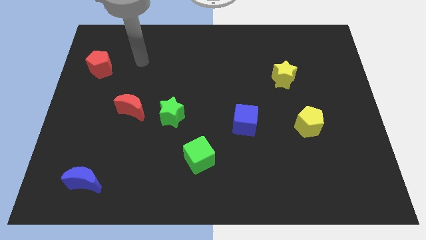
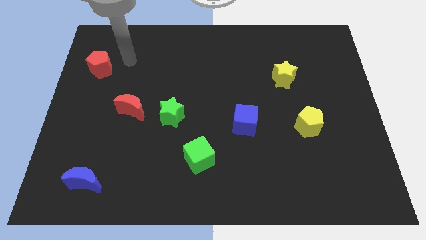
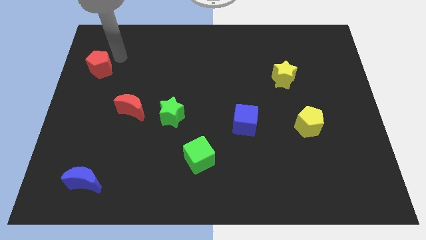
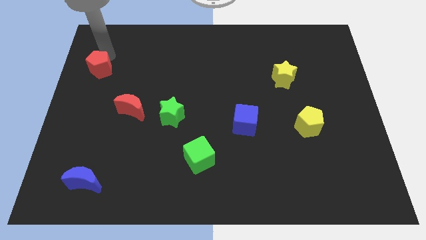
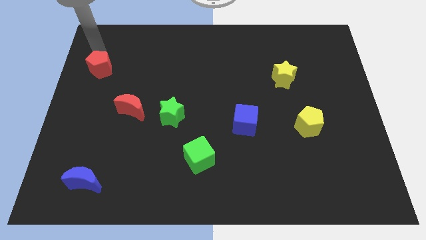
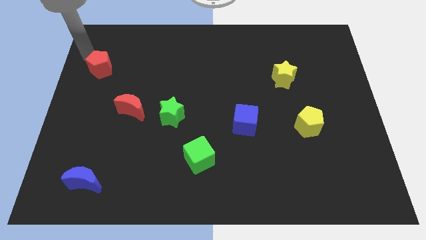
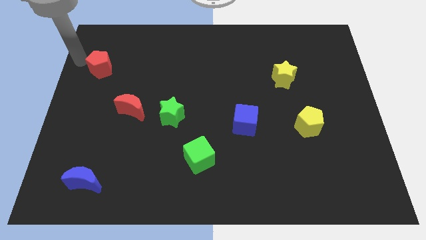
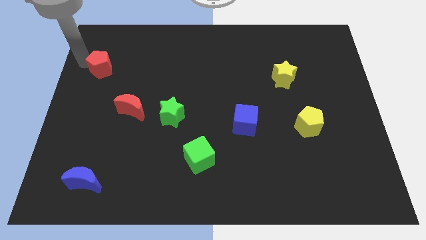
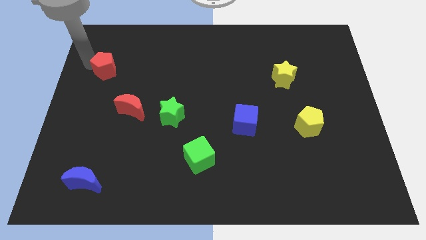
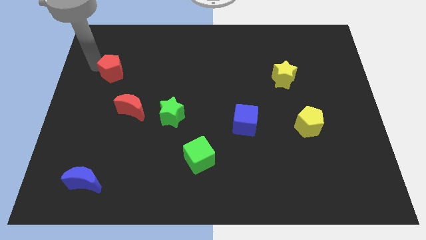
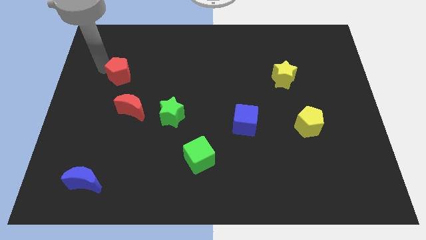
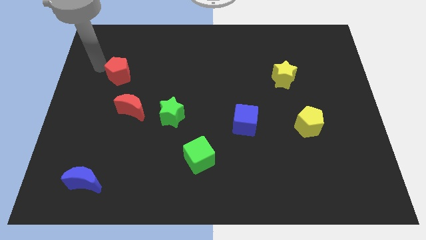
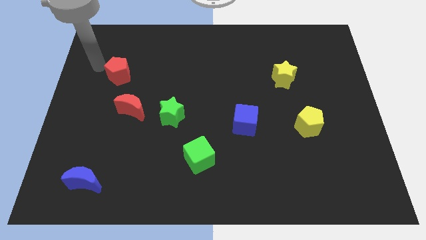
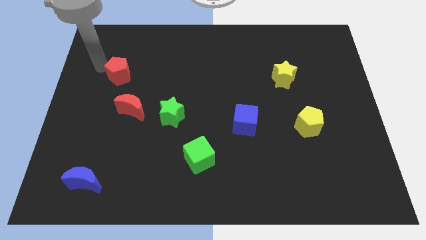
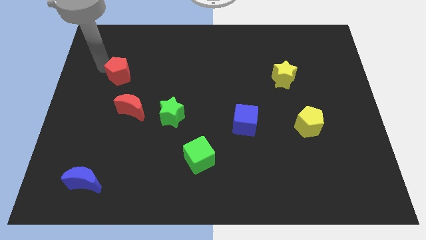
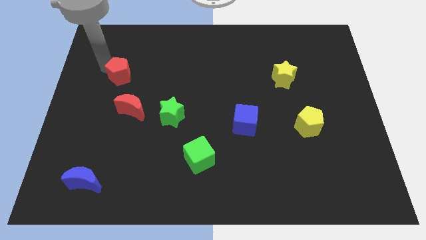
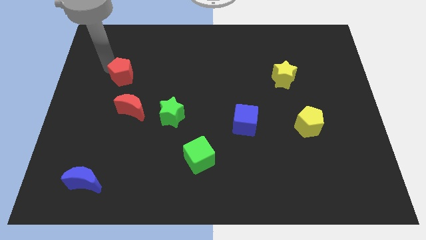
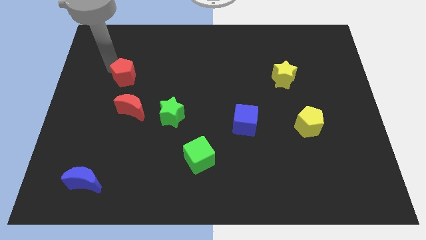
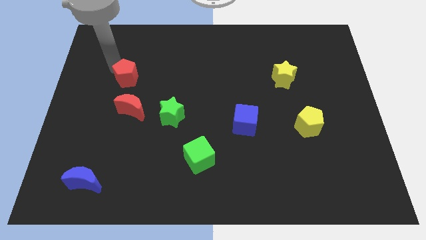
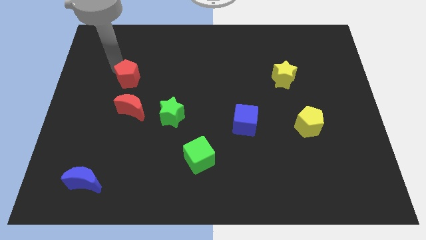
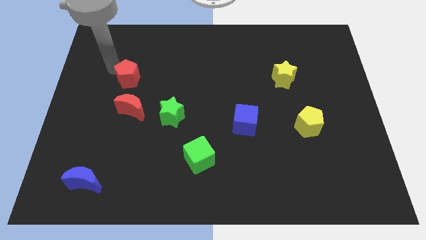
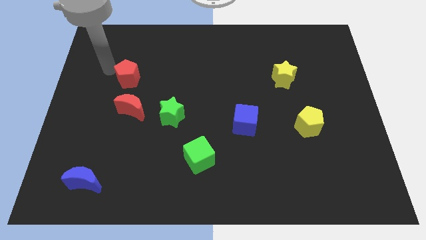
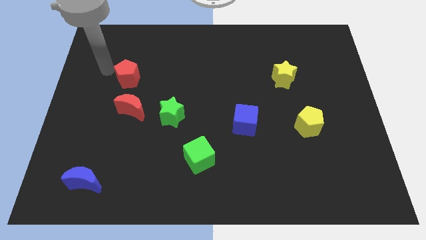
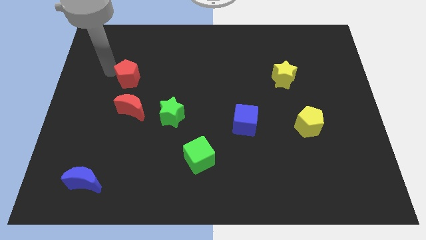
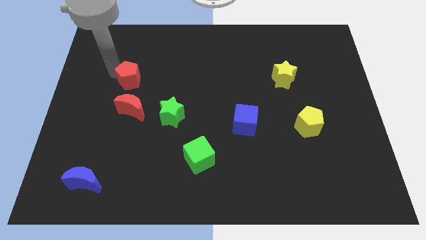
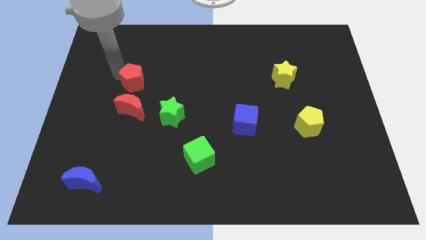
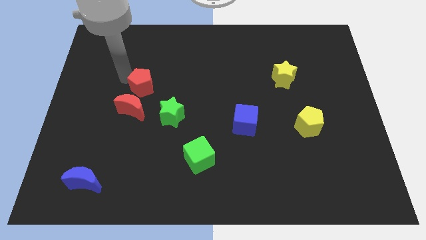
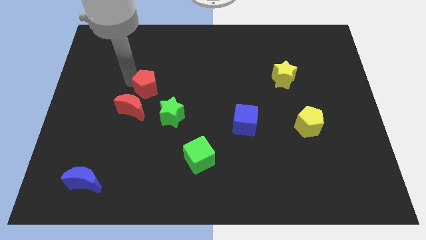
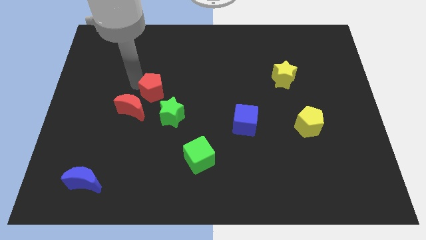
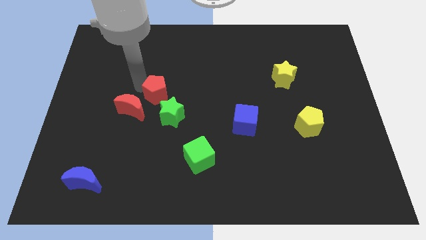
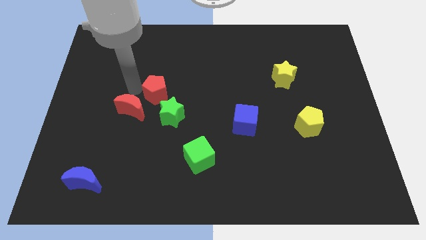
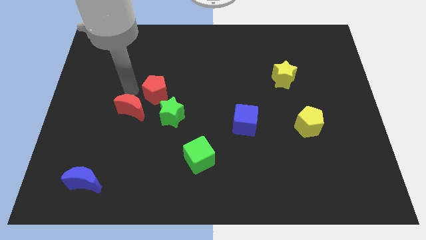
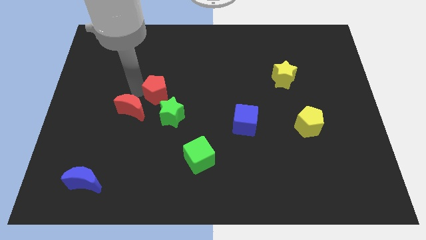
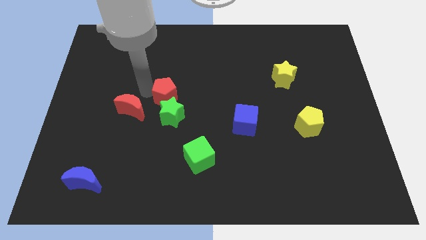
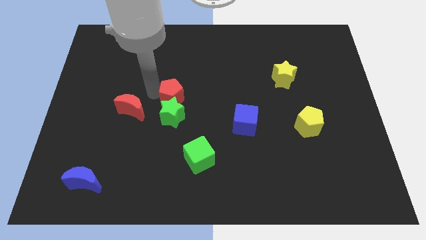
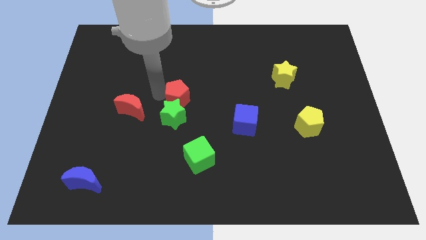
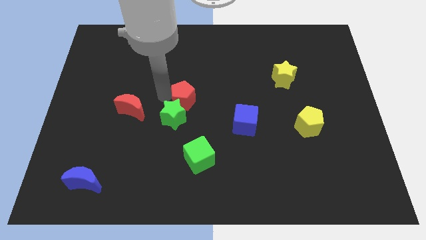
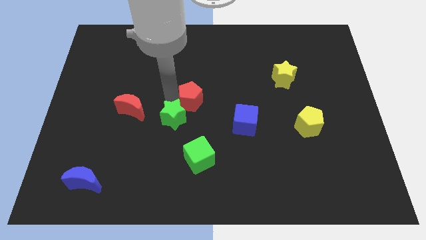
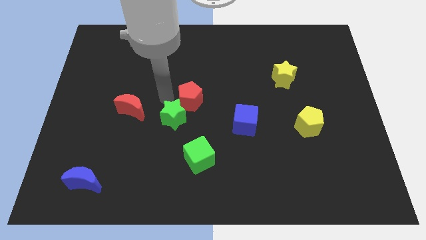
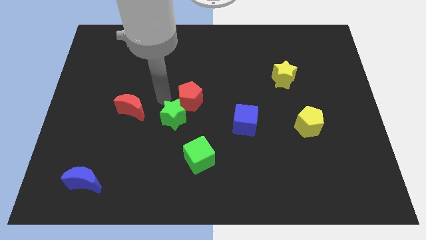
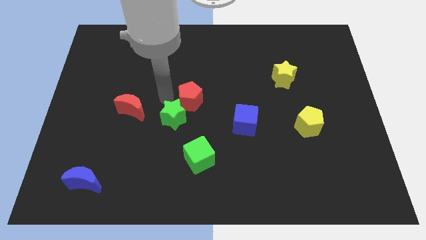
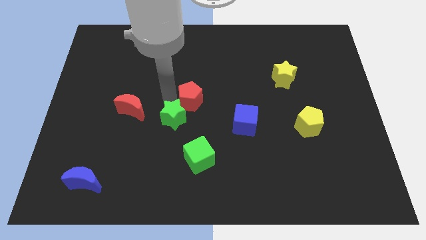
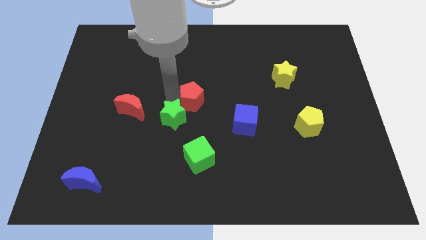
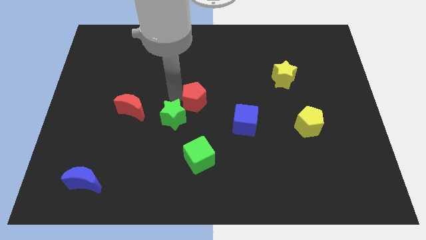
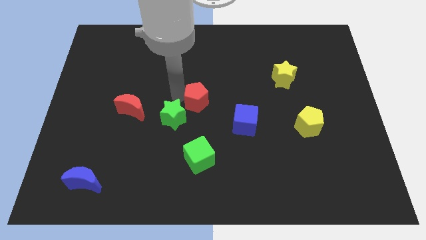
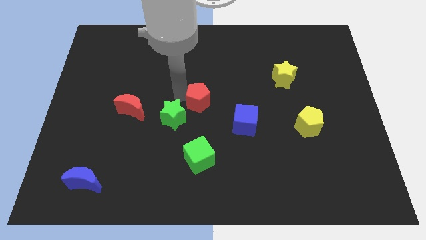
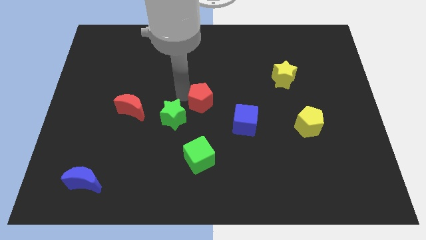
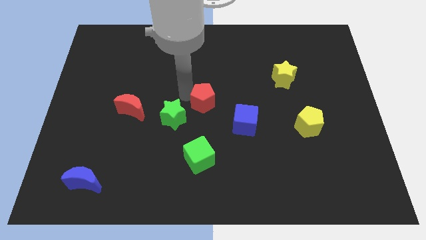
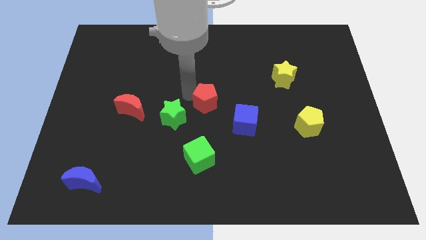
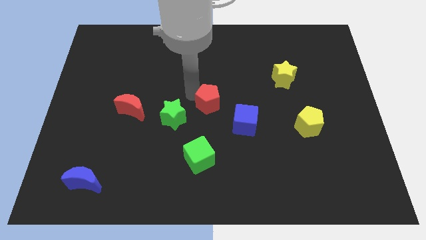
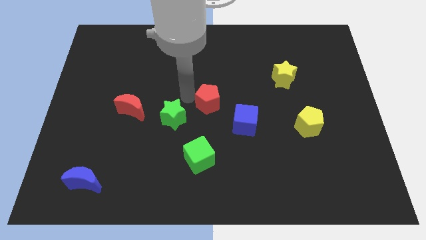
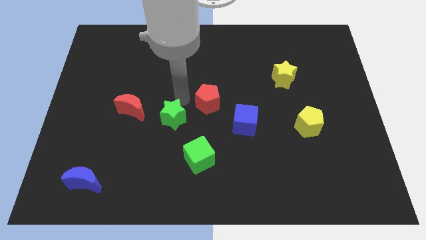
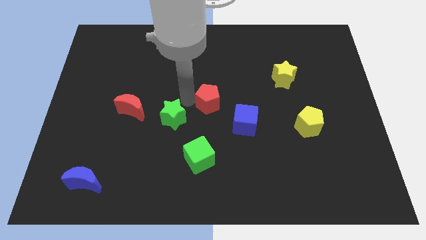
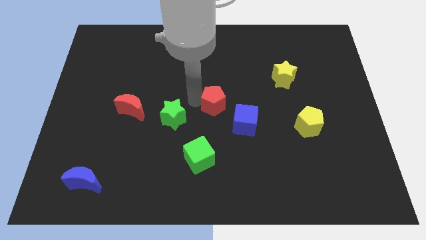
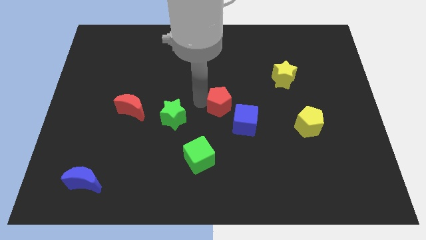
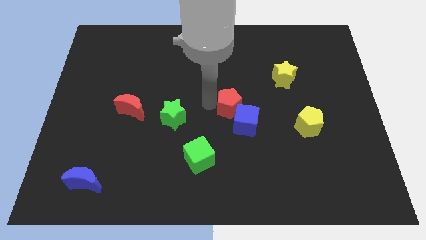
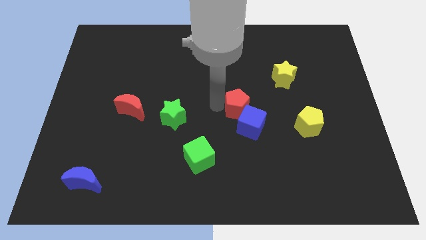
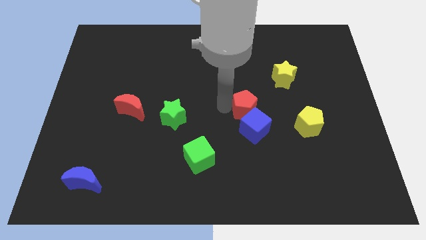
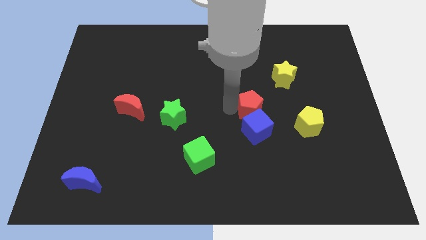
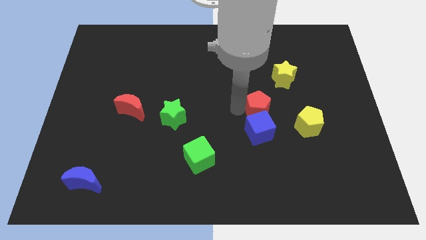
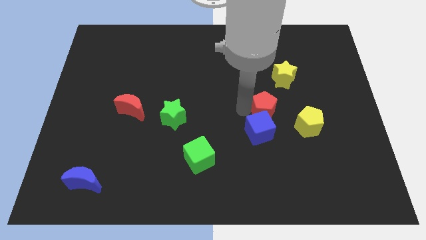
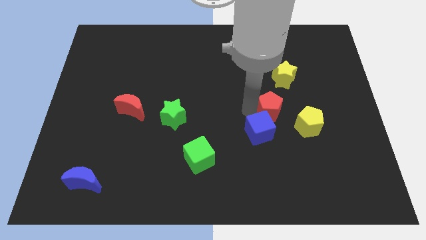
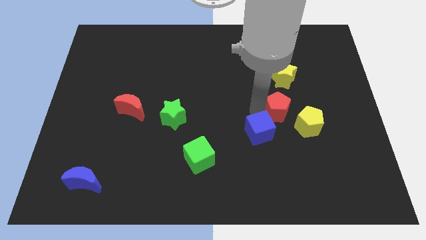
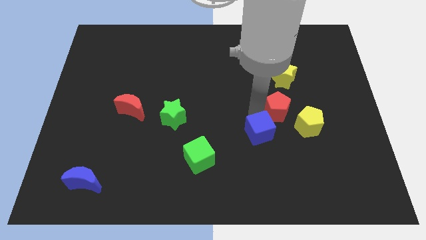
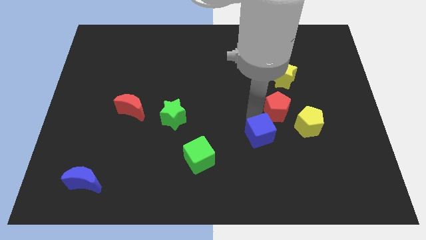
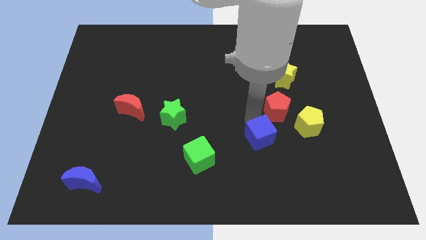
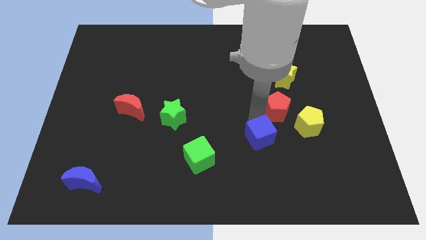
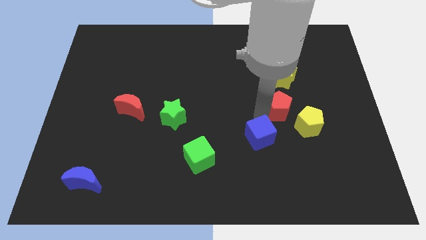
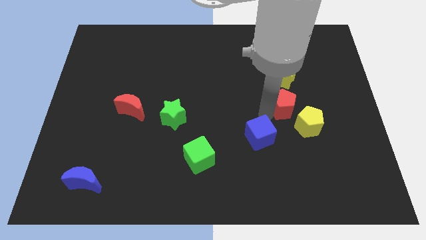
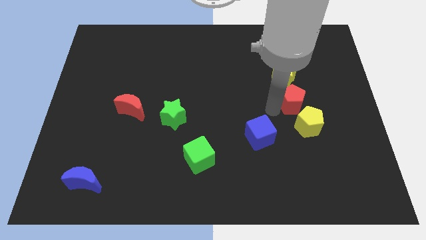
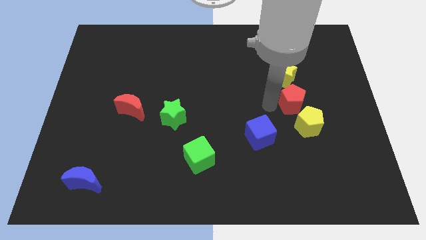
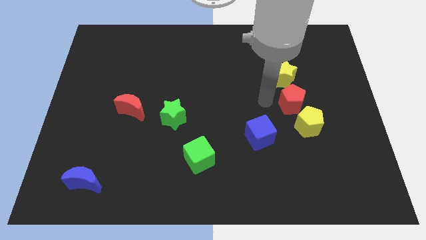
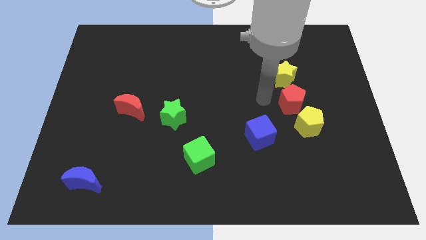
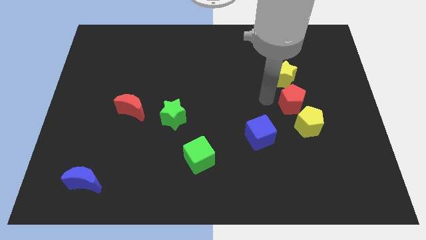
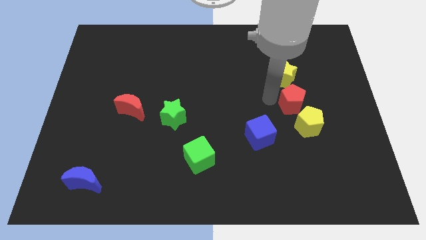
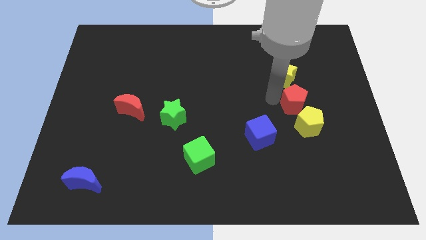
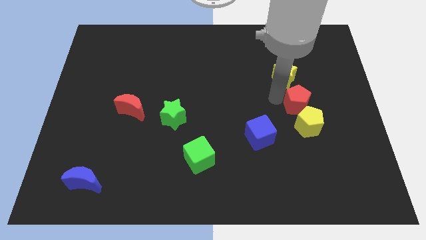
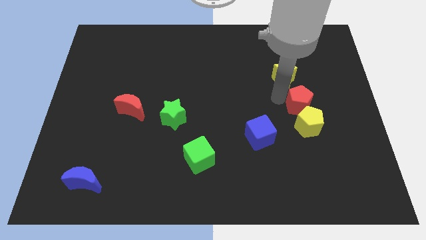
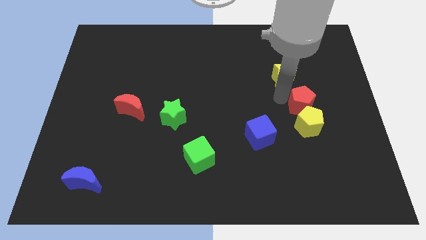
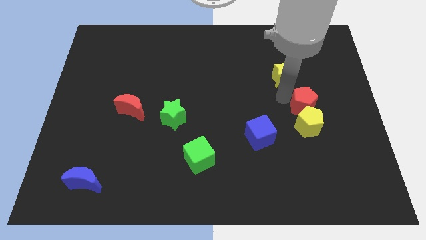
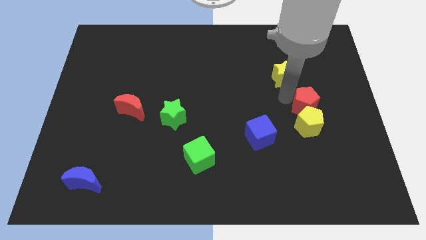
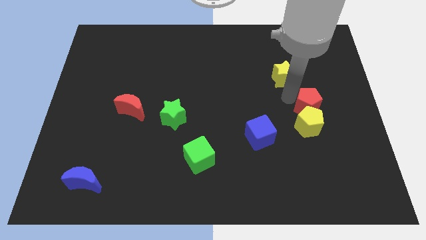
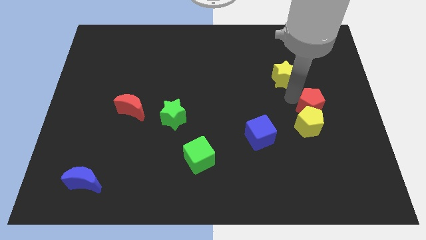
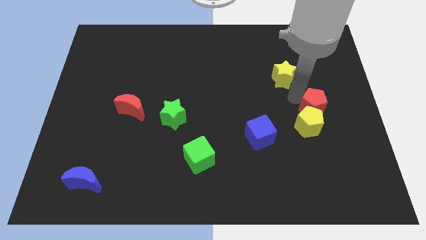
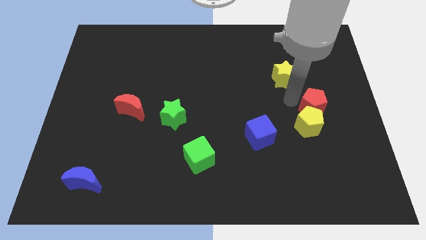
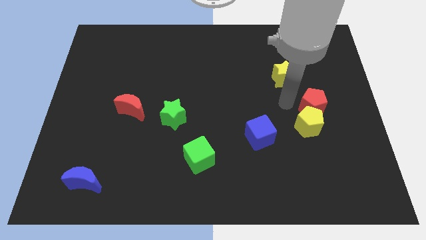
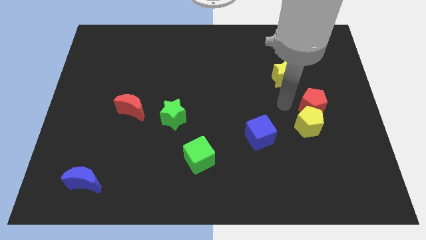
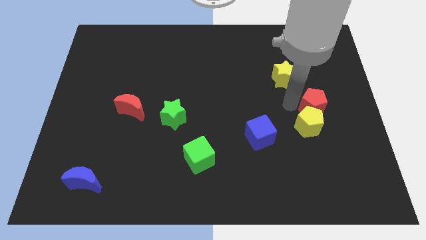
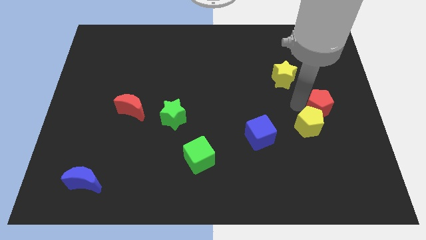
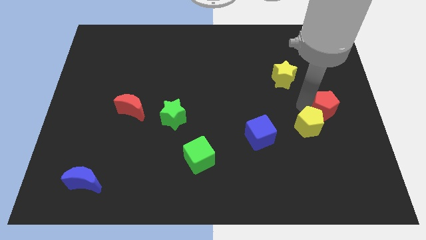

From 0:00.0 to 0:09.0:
slide the red pentagon to the center right
